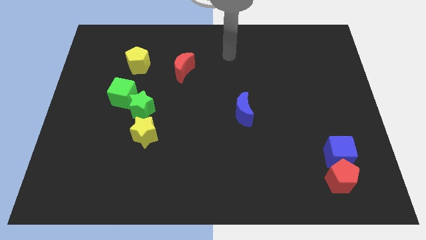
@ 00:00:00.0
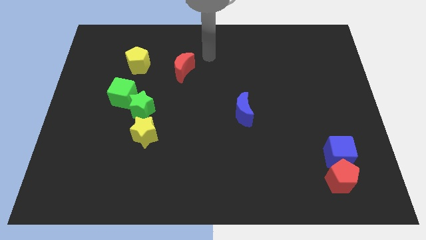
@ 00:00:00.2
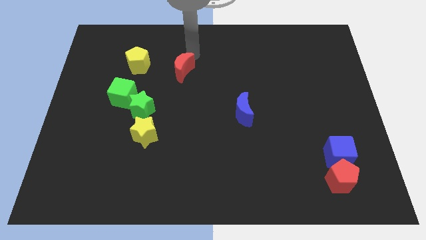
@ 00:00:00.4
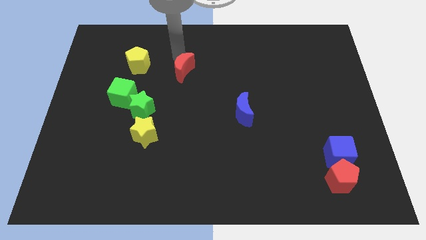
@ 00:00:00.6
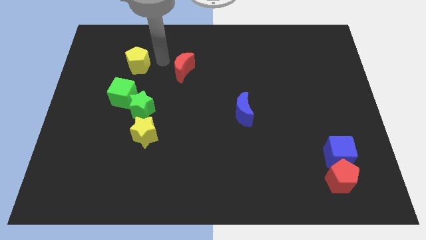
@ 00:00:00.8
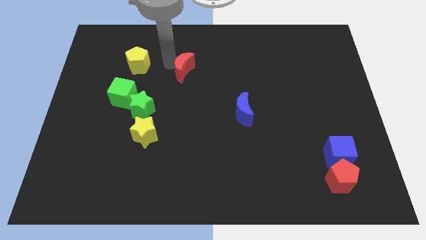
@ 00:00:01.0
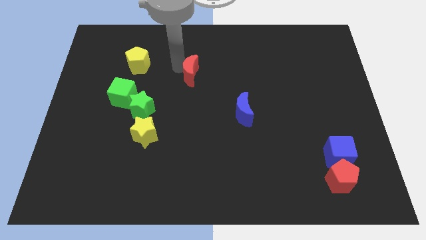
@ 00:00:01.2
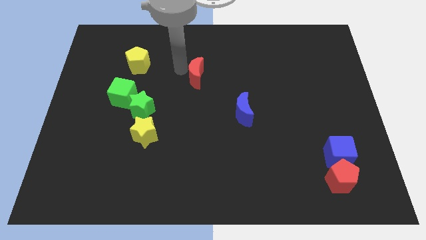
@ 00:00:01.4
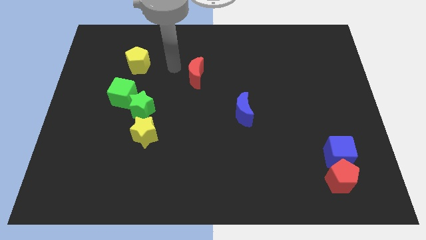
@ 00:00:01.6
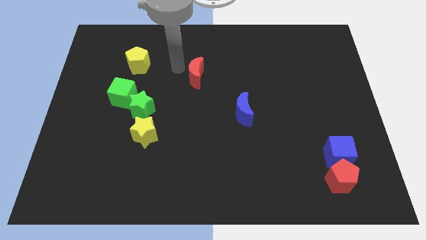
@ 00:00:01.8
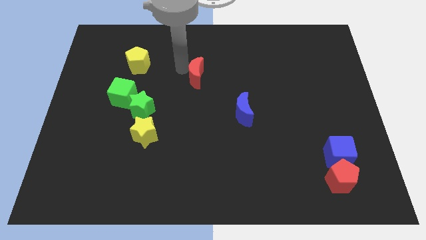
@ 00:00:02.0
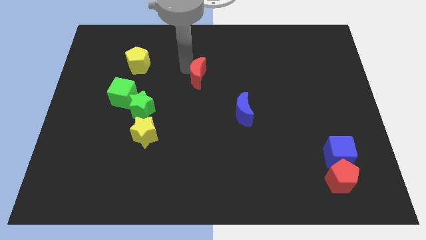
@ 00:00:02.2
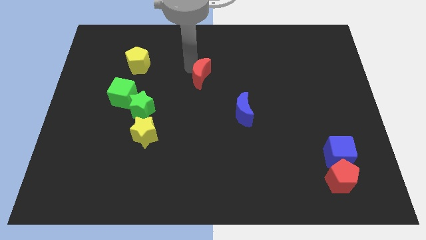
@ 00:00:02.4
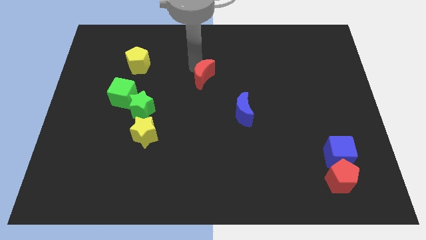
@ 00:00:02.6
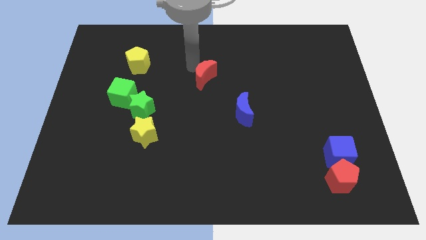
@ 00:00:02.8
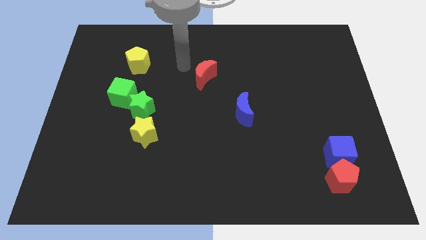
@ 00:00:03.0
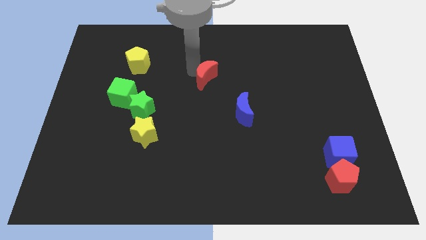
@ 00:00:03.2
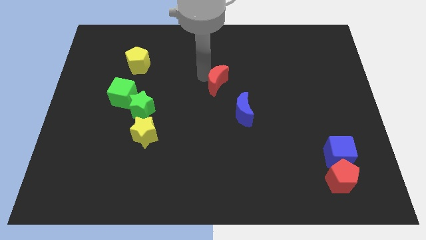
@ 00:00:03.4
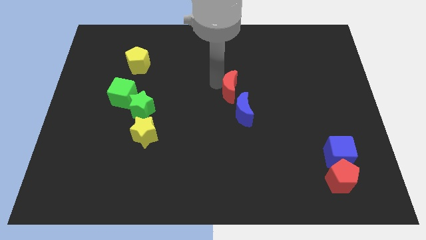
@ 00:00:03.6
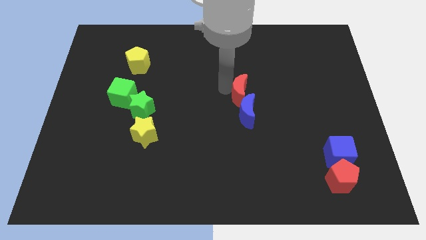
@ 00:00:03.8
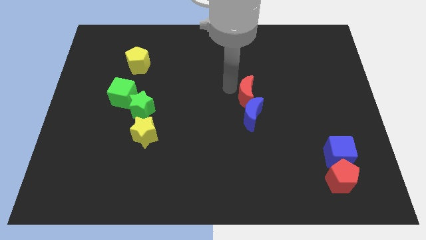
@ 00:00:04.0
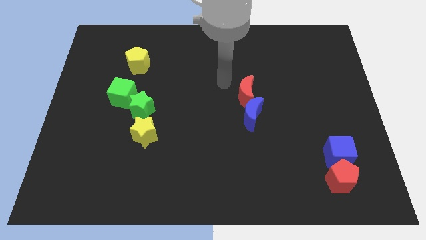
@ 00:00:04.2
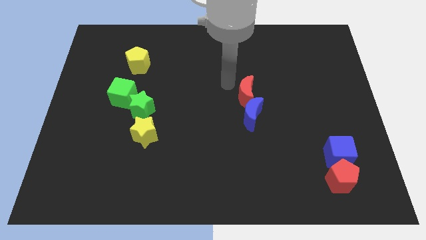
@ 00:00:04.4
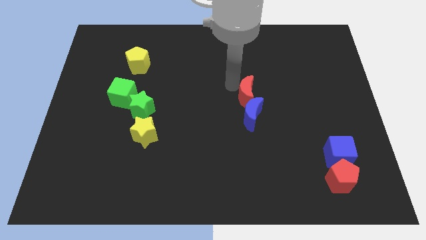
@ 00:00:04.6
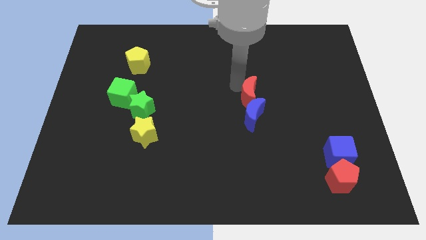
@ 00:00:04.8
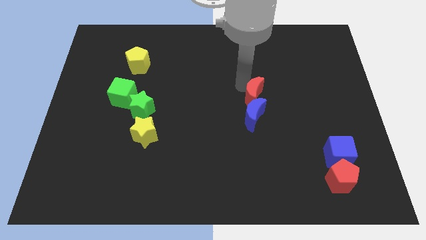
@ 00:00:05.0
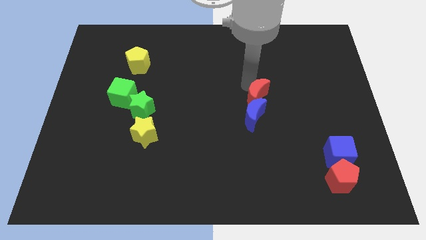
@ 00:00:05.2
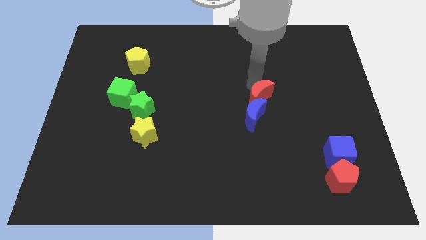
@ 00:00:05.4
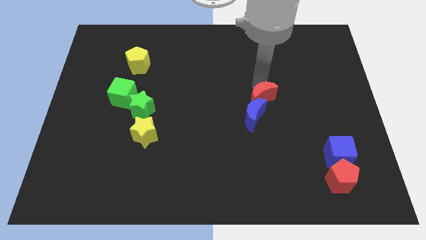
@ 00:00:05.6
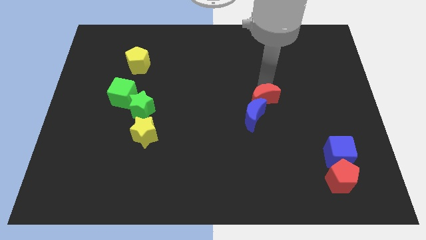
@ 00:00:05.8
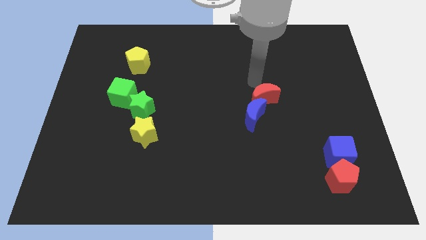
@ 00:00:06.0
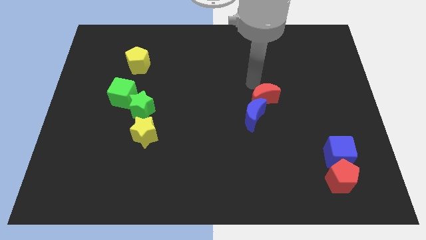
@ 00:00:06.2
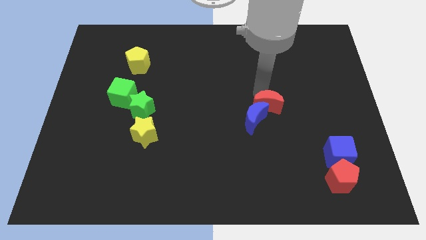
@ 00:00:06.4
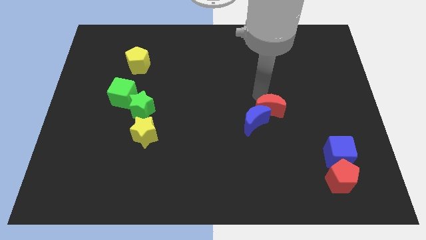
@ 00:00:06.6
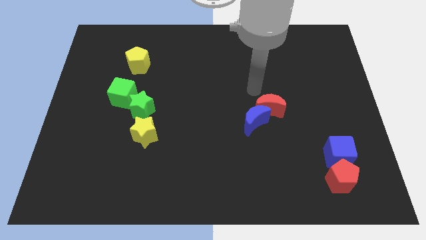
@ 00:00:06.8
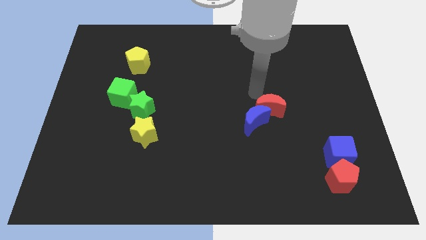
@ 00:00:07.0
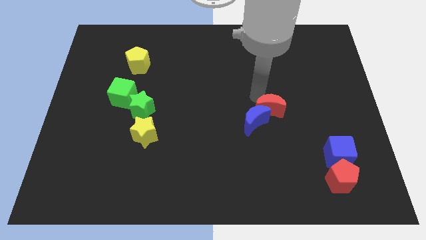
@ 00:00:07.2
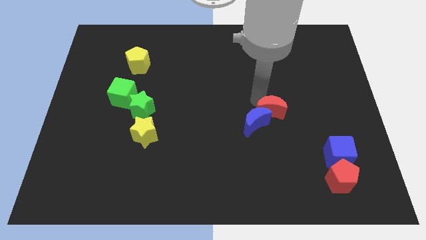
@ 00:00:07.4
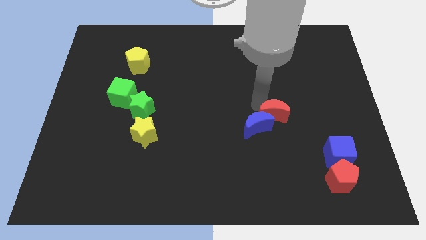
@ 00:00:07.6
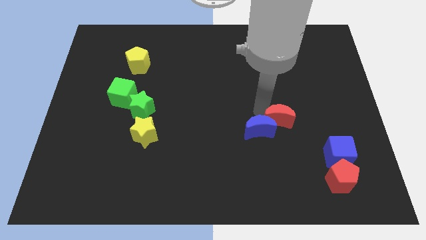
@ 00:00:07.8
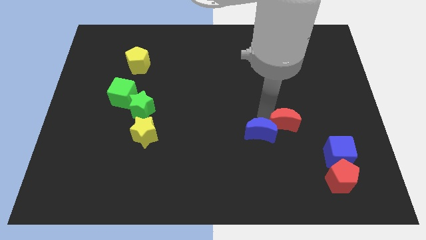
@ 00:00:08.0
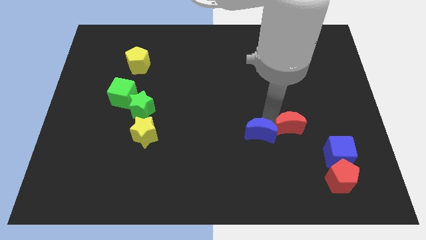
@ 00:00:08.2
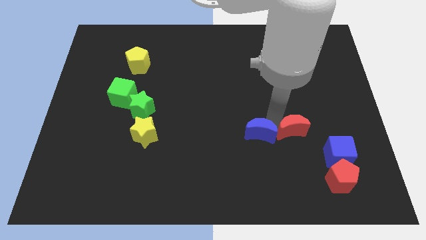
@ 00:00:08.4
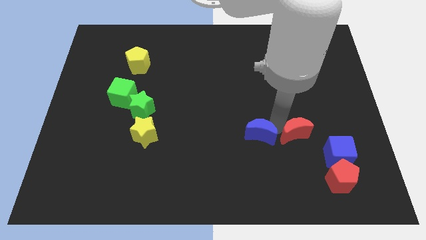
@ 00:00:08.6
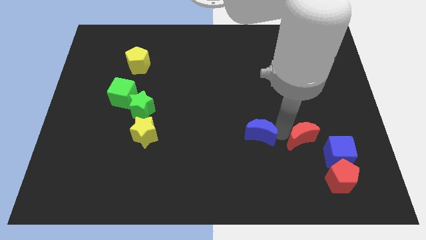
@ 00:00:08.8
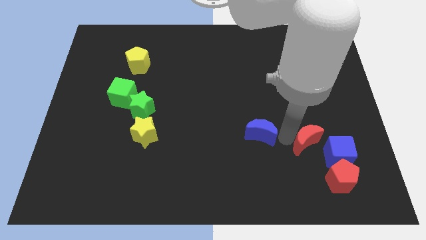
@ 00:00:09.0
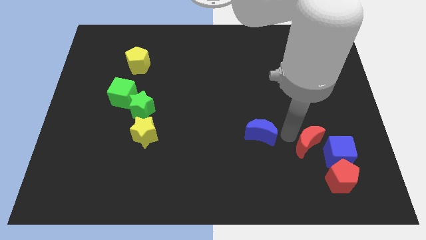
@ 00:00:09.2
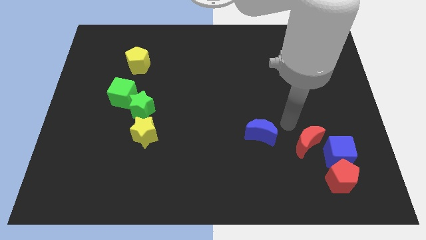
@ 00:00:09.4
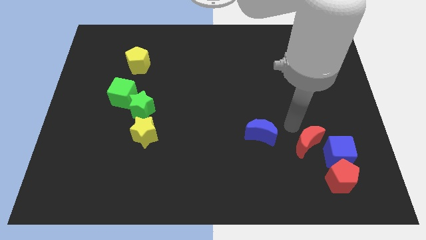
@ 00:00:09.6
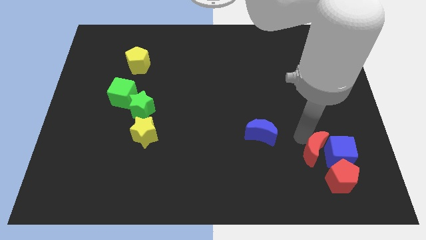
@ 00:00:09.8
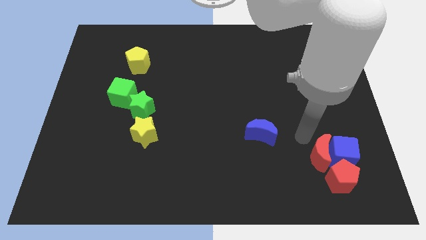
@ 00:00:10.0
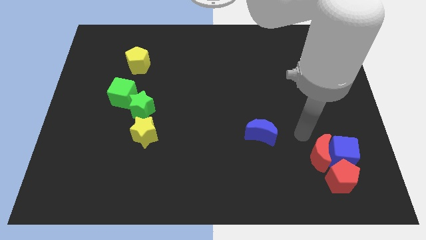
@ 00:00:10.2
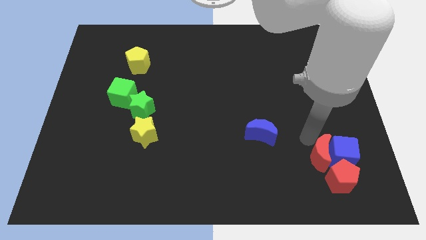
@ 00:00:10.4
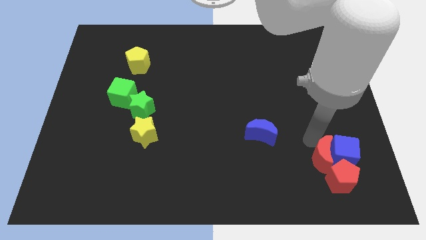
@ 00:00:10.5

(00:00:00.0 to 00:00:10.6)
slide the red moon next to the red pentagon

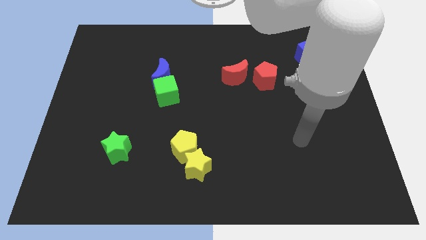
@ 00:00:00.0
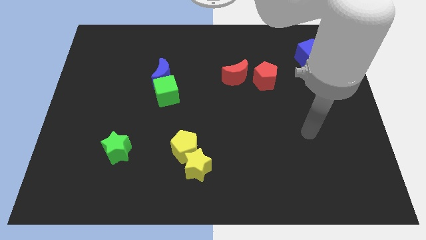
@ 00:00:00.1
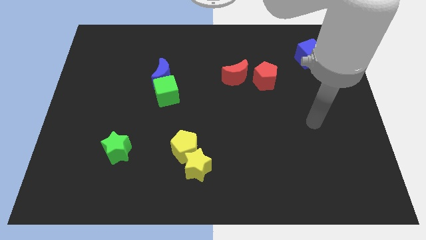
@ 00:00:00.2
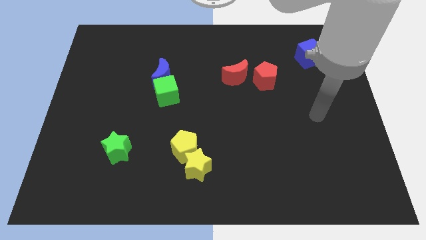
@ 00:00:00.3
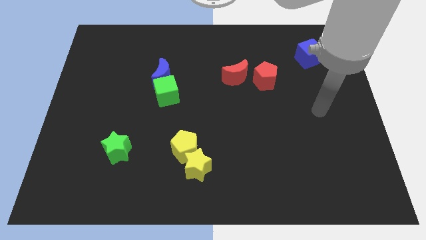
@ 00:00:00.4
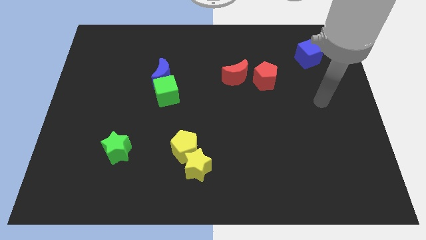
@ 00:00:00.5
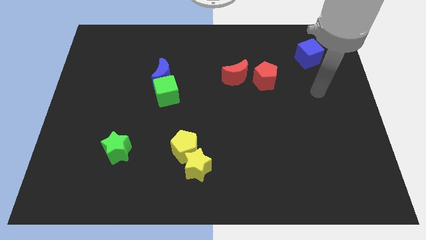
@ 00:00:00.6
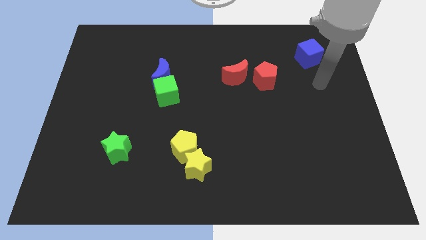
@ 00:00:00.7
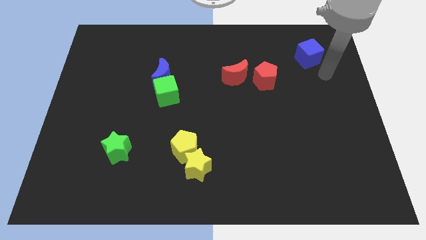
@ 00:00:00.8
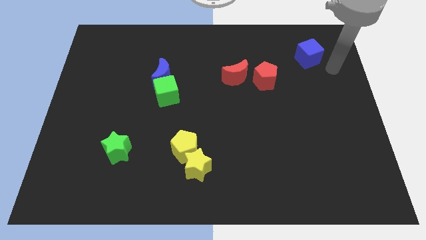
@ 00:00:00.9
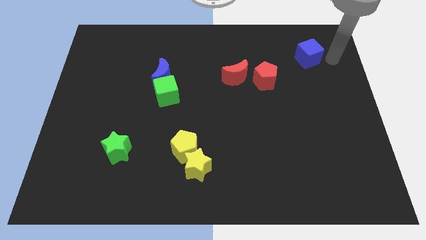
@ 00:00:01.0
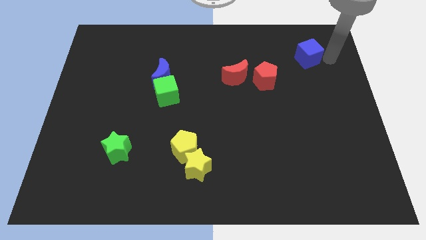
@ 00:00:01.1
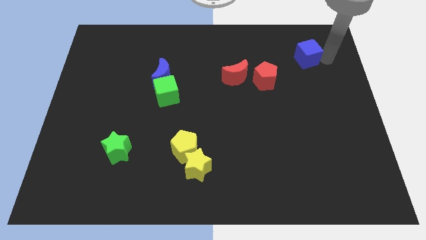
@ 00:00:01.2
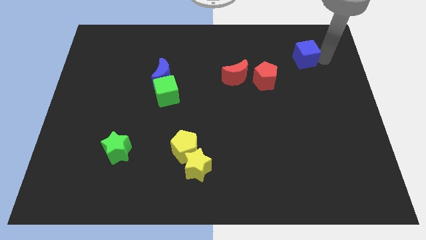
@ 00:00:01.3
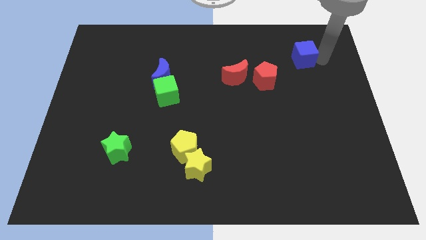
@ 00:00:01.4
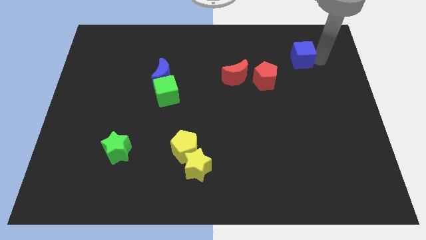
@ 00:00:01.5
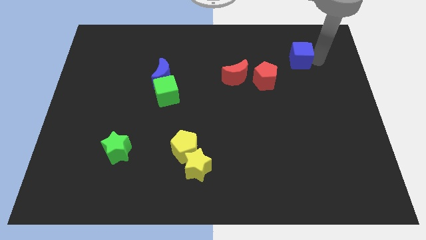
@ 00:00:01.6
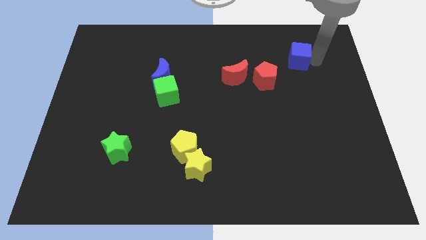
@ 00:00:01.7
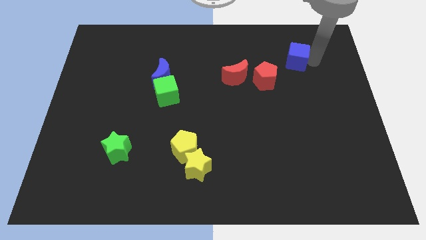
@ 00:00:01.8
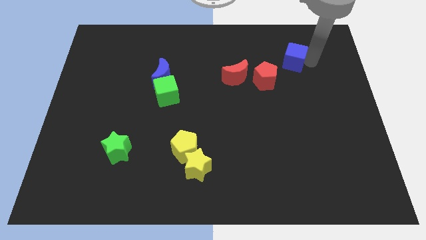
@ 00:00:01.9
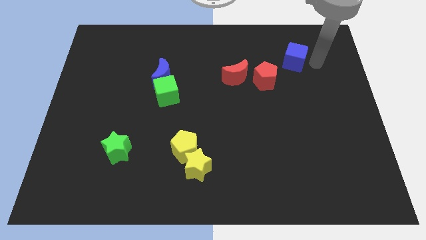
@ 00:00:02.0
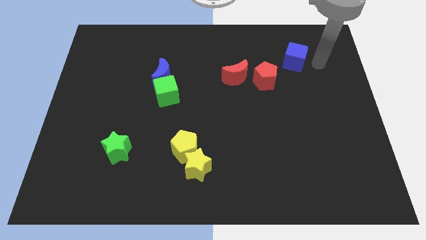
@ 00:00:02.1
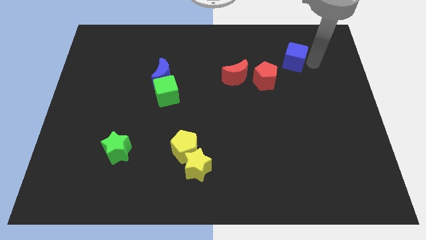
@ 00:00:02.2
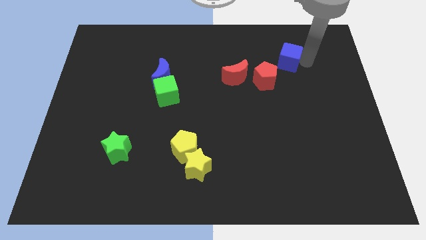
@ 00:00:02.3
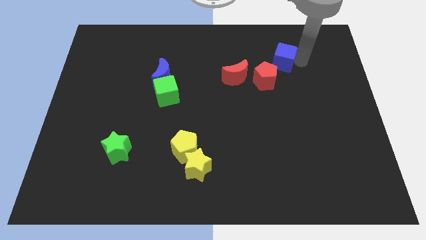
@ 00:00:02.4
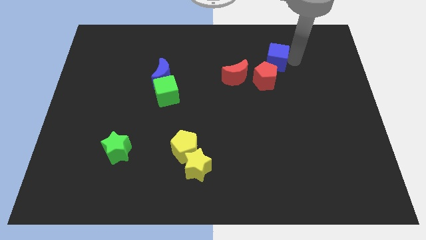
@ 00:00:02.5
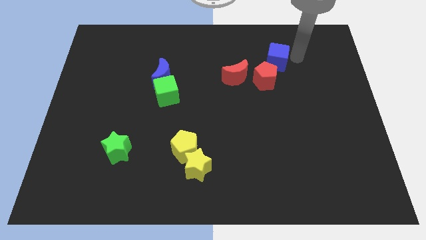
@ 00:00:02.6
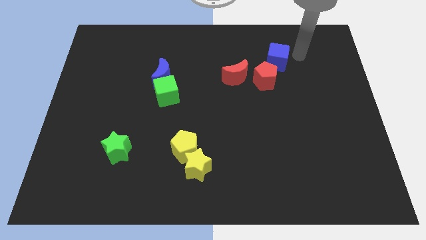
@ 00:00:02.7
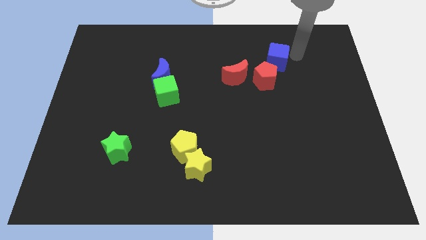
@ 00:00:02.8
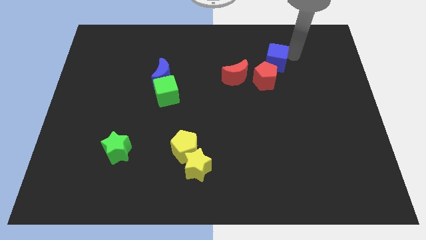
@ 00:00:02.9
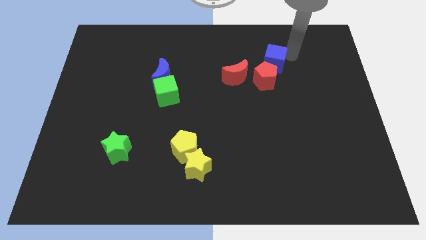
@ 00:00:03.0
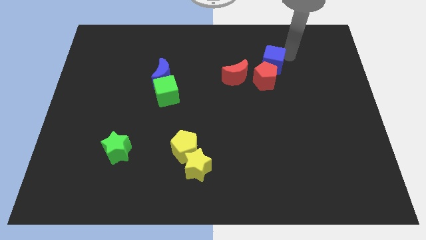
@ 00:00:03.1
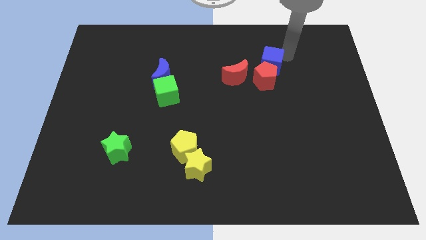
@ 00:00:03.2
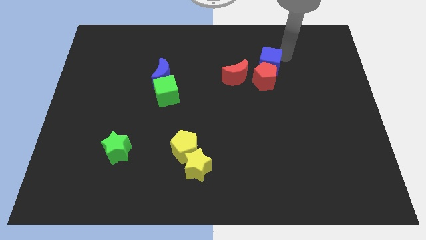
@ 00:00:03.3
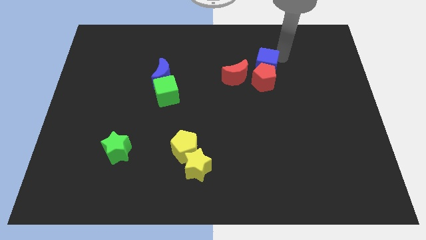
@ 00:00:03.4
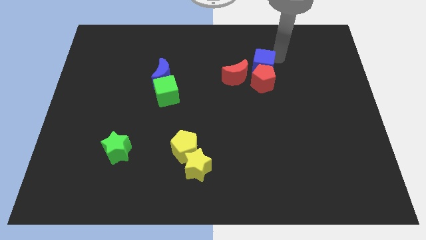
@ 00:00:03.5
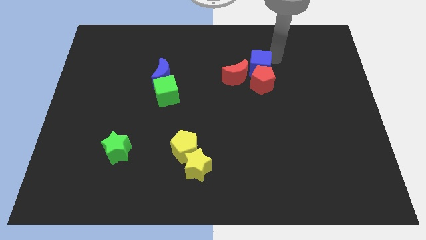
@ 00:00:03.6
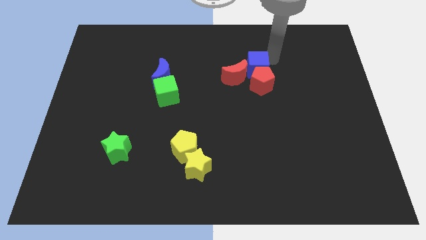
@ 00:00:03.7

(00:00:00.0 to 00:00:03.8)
push the blue cube close to the red moon
